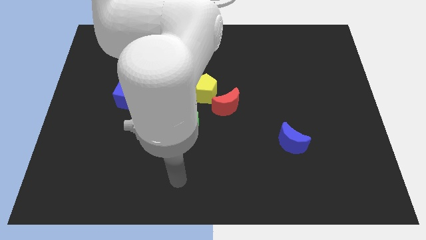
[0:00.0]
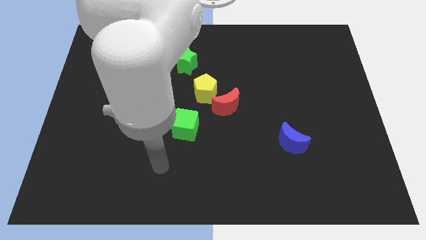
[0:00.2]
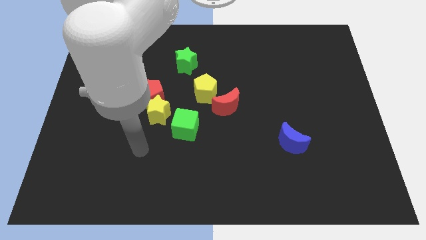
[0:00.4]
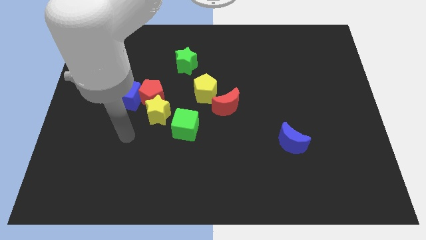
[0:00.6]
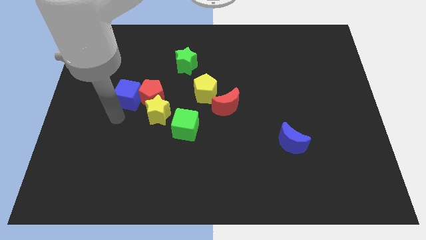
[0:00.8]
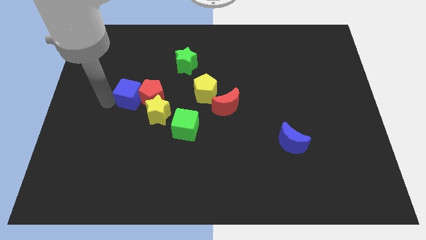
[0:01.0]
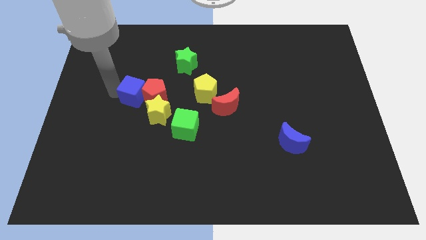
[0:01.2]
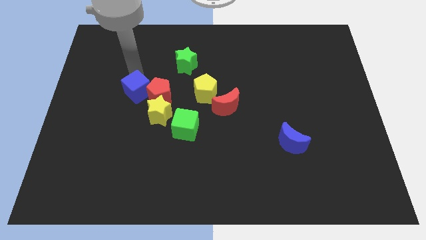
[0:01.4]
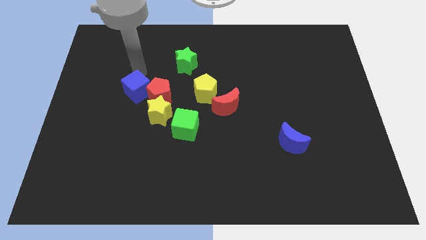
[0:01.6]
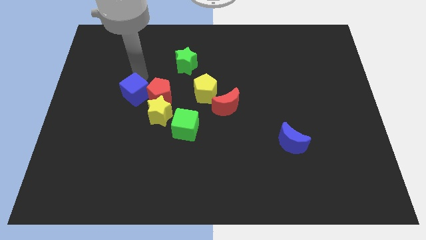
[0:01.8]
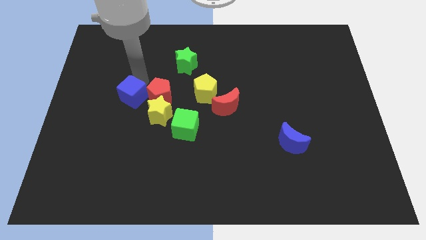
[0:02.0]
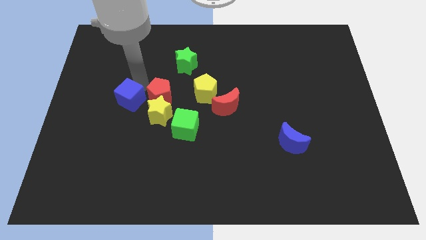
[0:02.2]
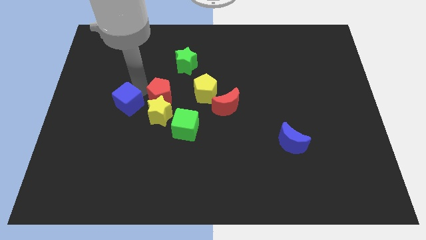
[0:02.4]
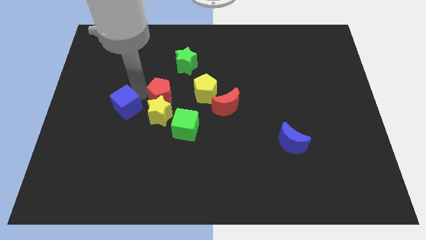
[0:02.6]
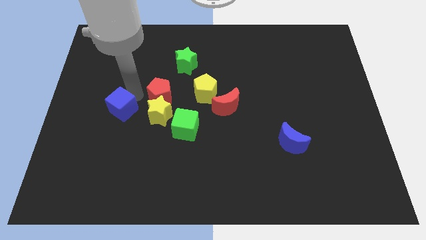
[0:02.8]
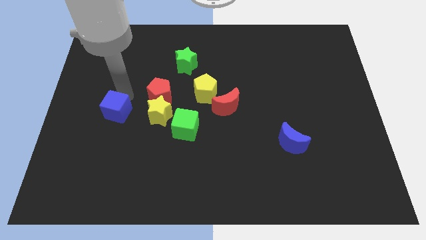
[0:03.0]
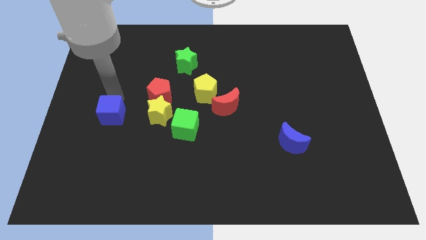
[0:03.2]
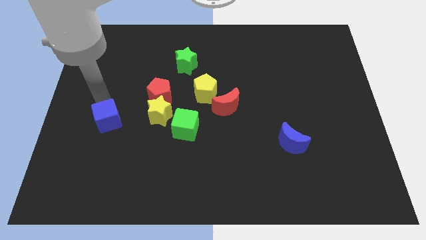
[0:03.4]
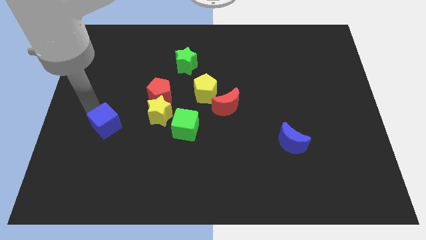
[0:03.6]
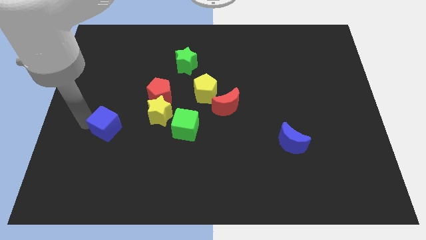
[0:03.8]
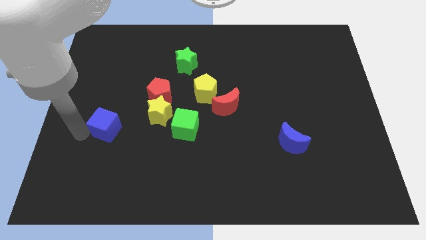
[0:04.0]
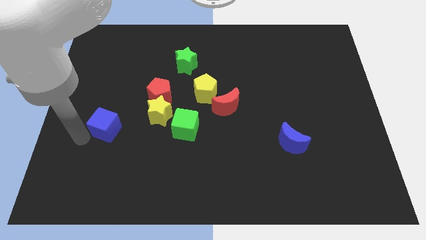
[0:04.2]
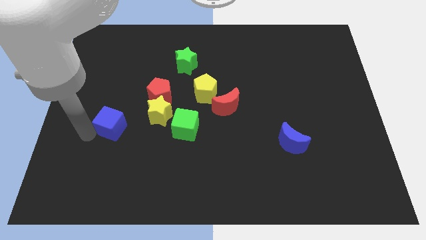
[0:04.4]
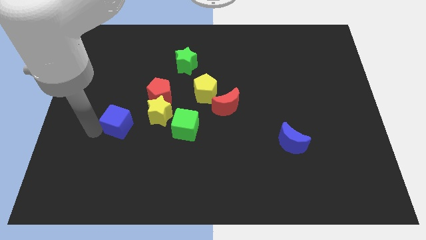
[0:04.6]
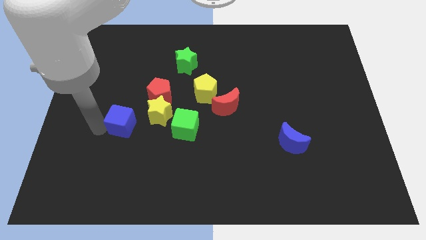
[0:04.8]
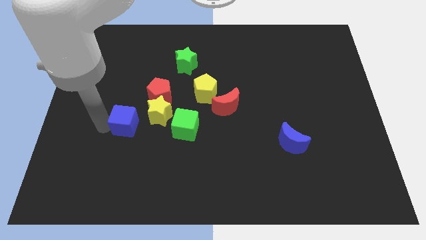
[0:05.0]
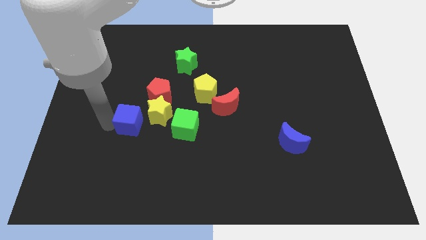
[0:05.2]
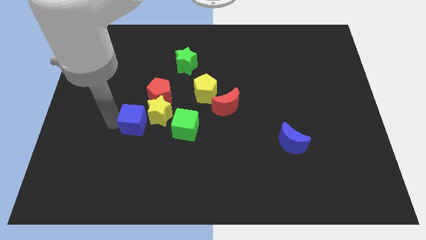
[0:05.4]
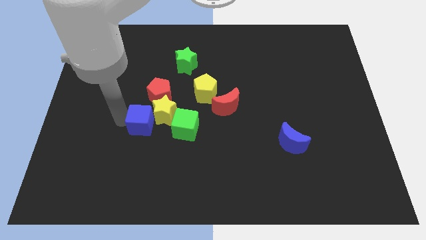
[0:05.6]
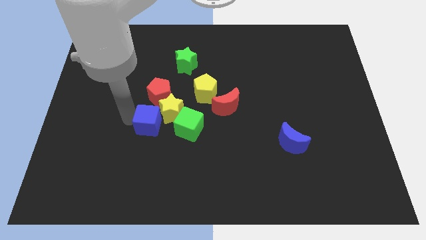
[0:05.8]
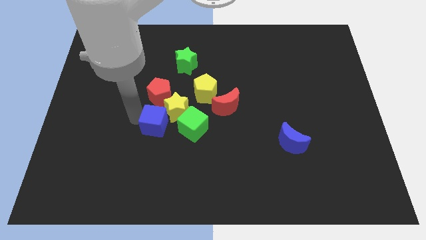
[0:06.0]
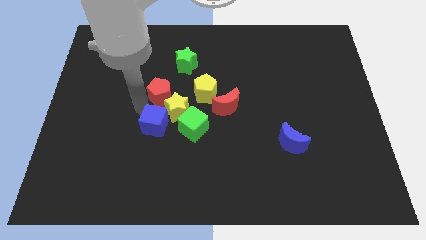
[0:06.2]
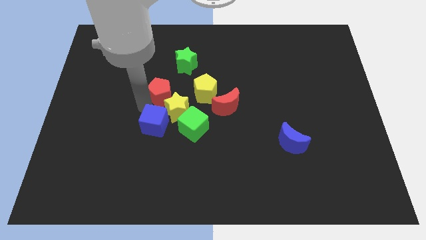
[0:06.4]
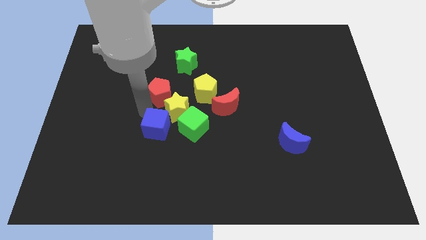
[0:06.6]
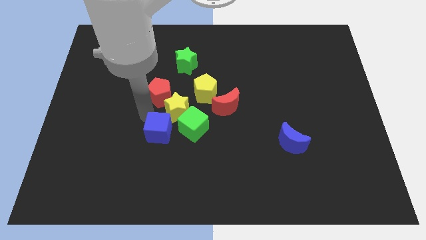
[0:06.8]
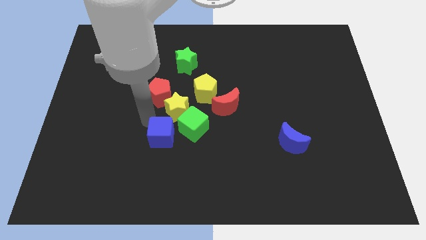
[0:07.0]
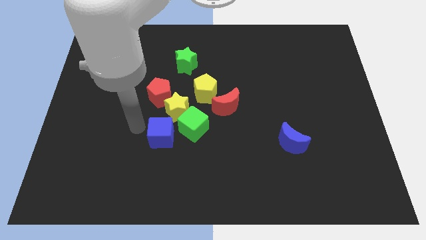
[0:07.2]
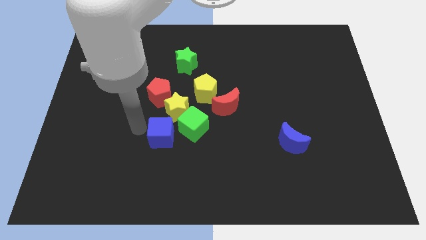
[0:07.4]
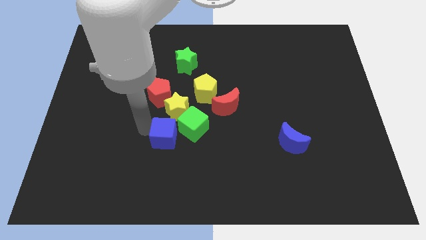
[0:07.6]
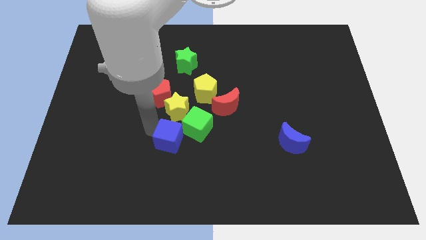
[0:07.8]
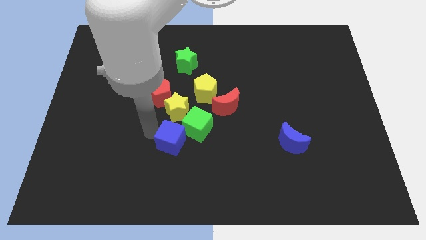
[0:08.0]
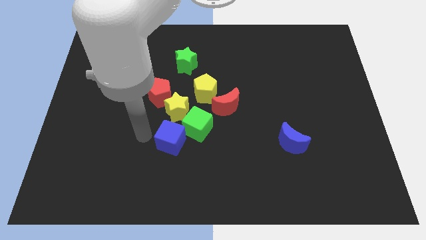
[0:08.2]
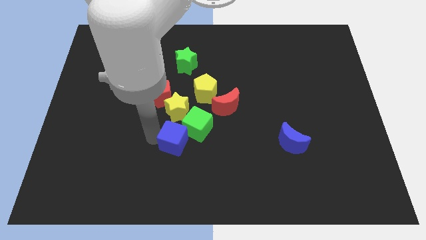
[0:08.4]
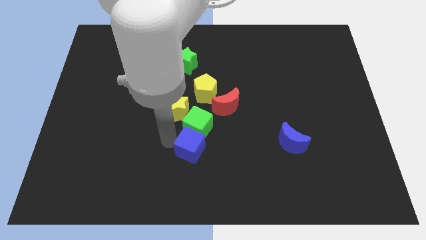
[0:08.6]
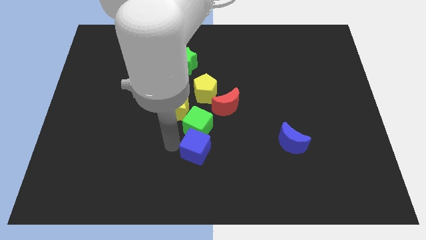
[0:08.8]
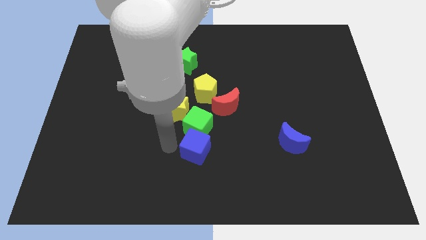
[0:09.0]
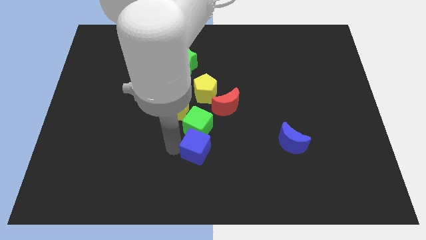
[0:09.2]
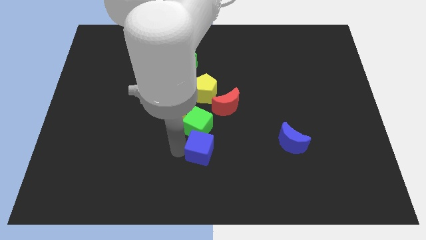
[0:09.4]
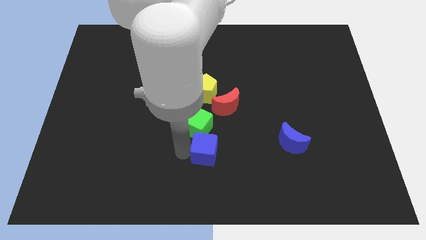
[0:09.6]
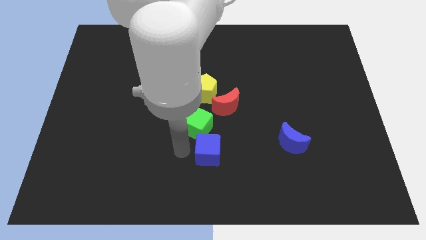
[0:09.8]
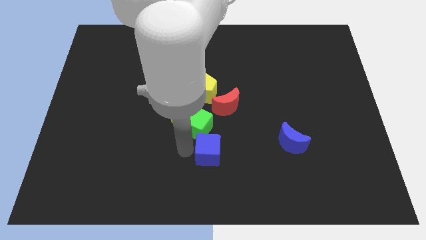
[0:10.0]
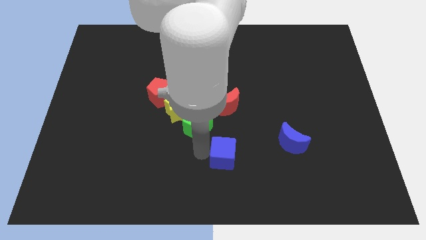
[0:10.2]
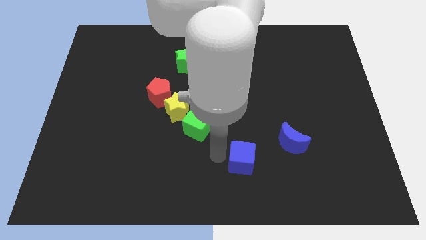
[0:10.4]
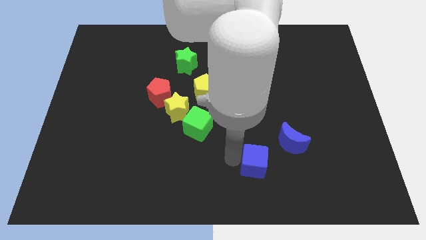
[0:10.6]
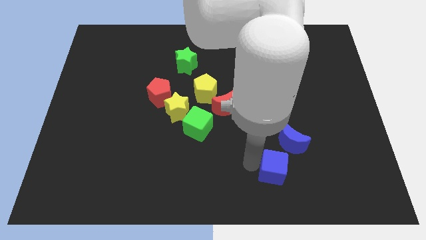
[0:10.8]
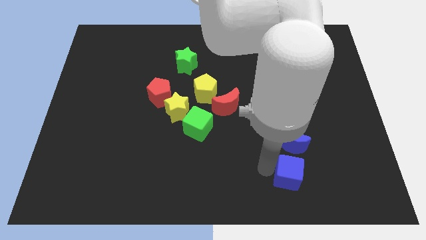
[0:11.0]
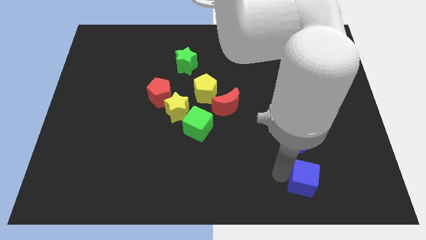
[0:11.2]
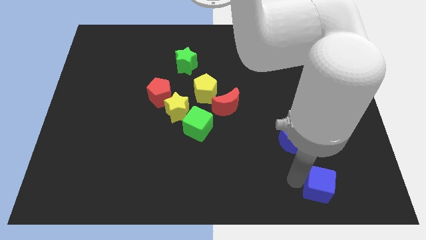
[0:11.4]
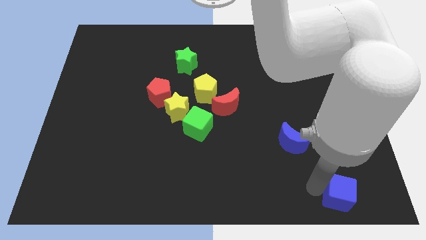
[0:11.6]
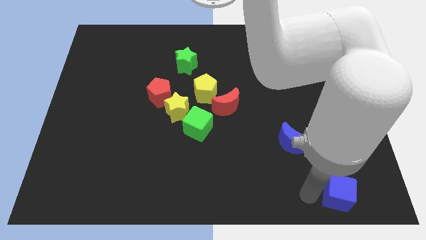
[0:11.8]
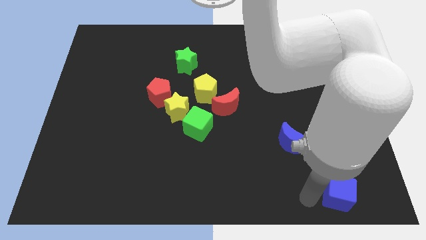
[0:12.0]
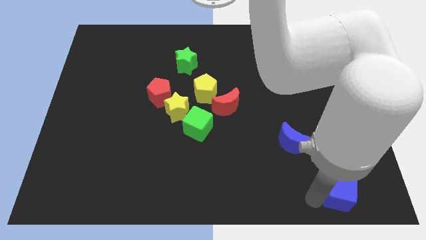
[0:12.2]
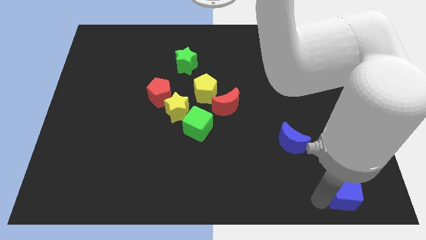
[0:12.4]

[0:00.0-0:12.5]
move the blue cube to the bottom right of the board
